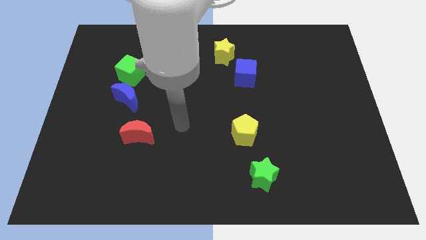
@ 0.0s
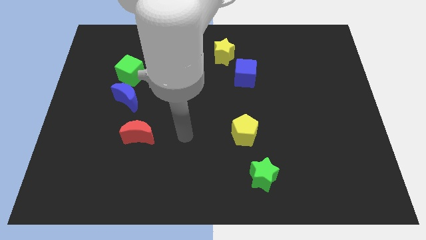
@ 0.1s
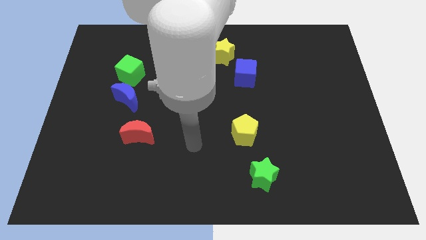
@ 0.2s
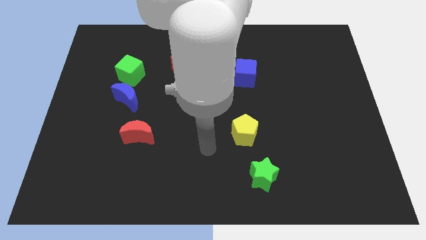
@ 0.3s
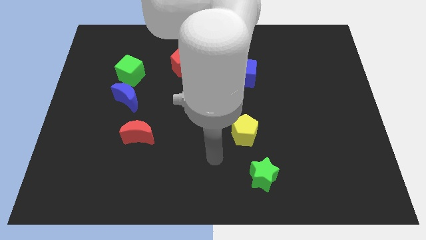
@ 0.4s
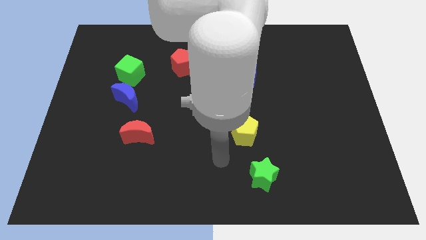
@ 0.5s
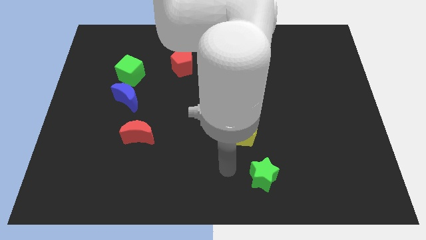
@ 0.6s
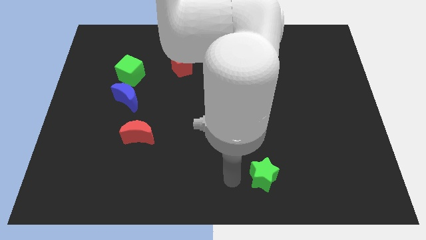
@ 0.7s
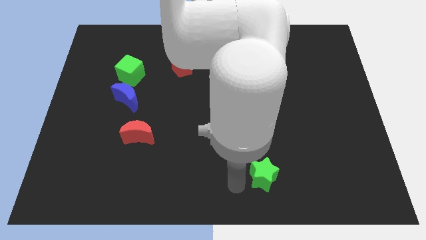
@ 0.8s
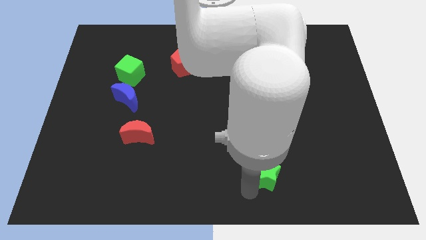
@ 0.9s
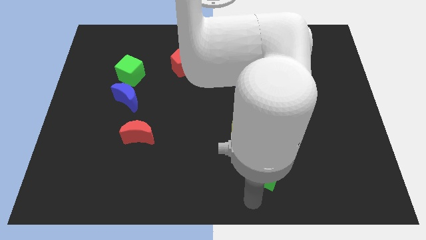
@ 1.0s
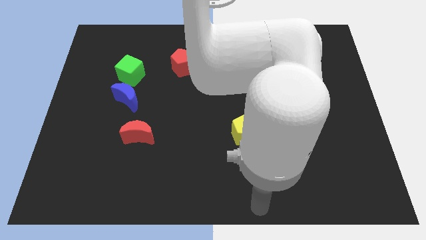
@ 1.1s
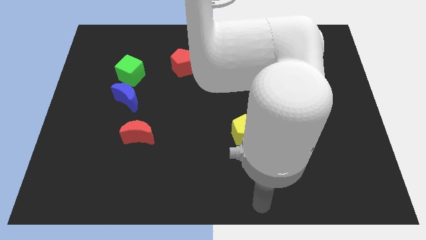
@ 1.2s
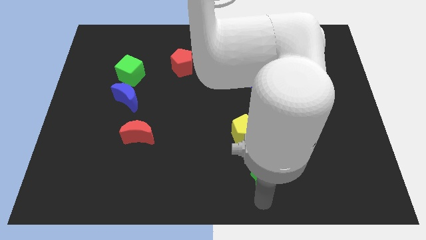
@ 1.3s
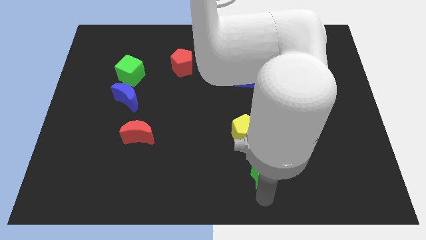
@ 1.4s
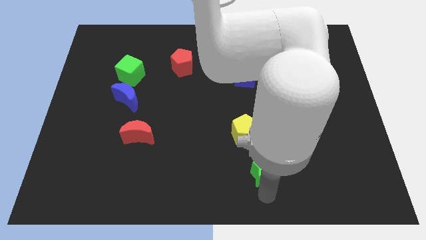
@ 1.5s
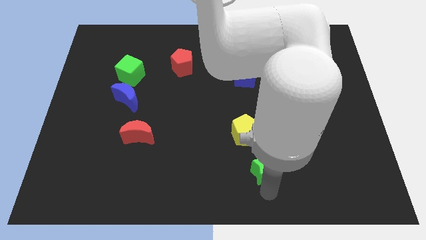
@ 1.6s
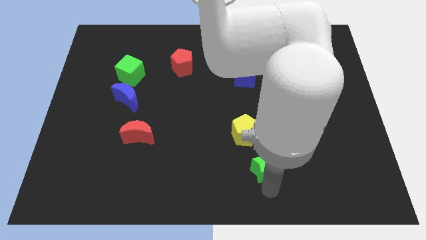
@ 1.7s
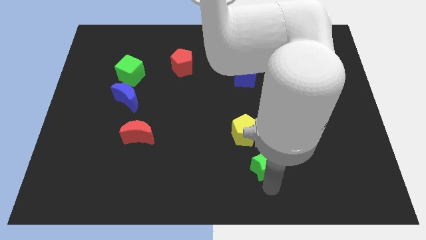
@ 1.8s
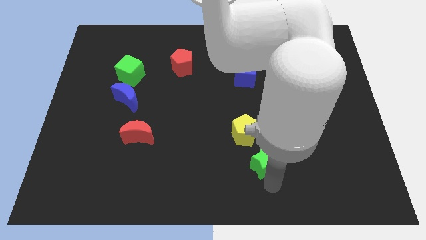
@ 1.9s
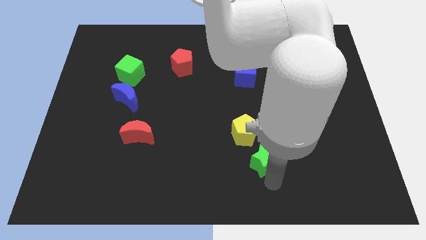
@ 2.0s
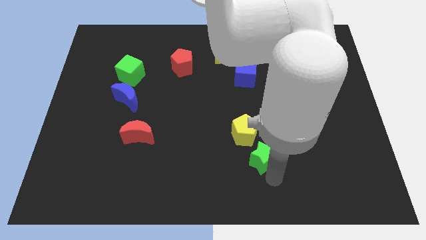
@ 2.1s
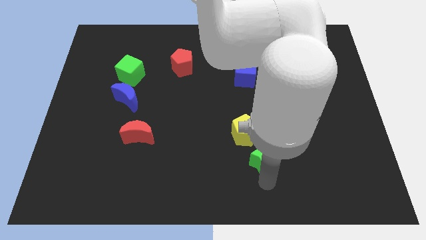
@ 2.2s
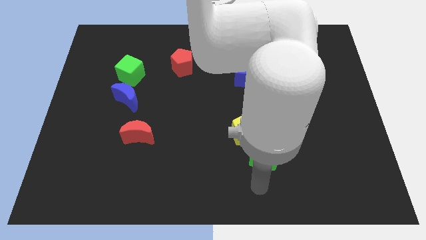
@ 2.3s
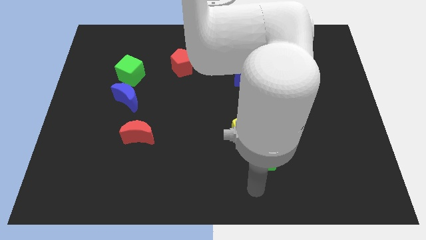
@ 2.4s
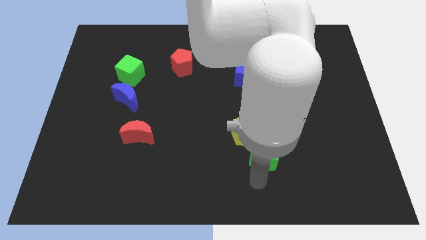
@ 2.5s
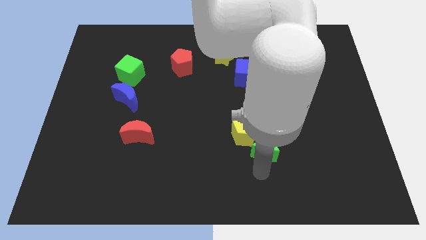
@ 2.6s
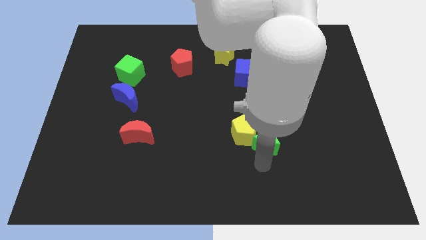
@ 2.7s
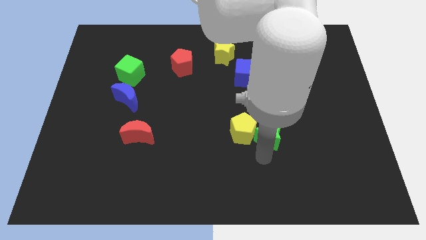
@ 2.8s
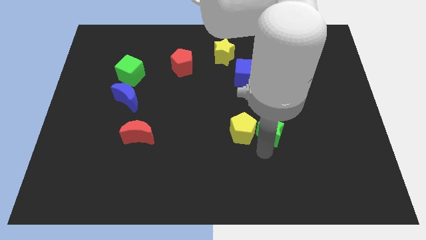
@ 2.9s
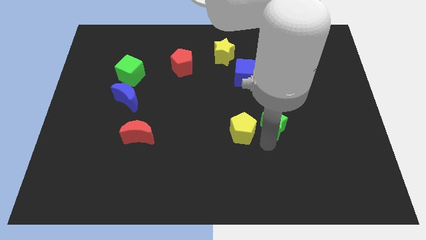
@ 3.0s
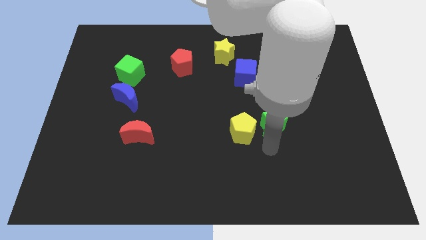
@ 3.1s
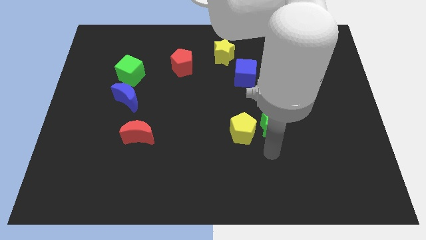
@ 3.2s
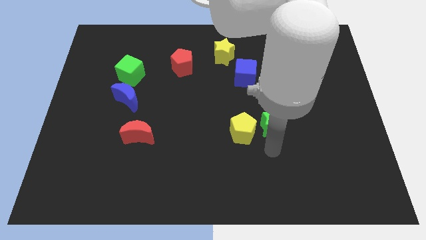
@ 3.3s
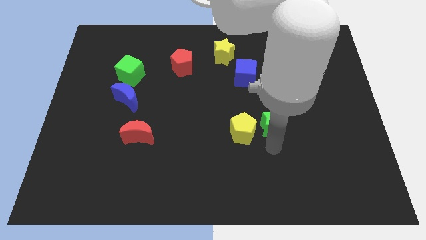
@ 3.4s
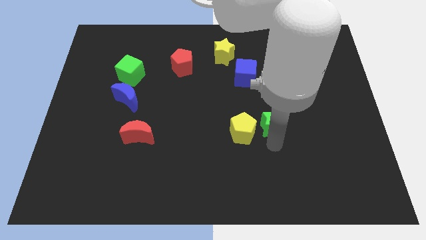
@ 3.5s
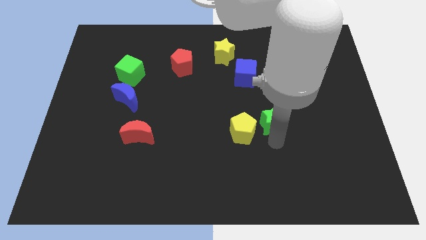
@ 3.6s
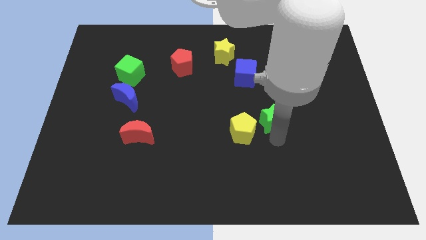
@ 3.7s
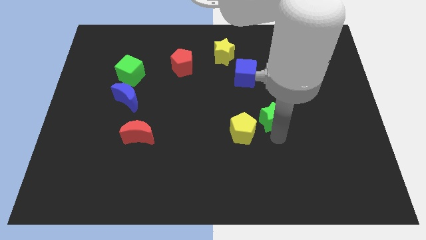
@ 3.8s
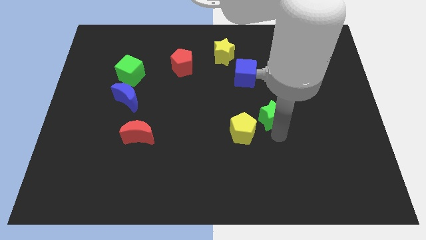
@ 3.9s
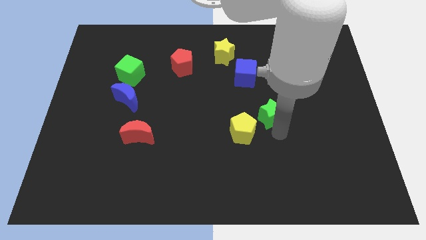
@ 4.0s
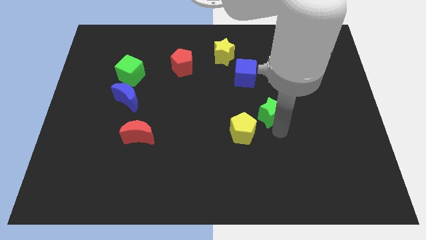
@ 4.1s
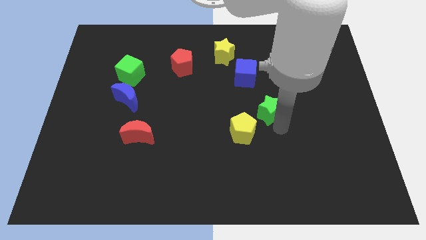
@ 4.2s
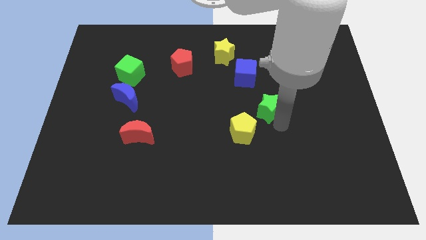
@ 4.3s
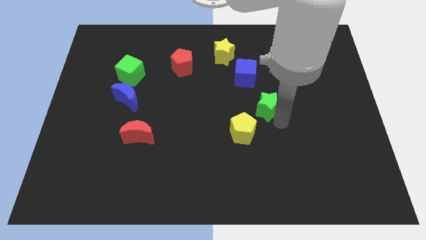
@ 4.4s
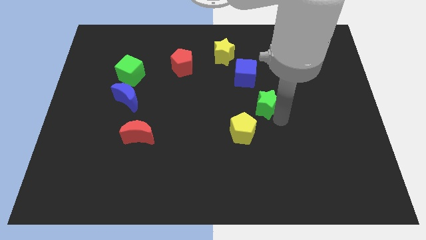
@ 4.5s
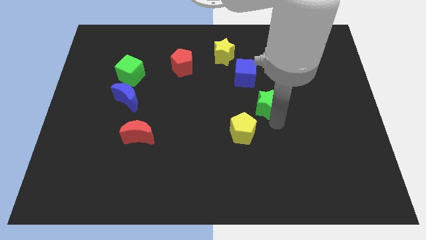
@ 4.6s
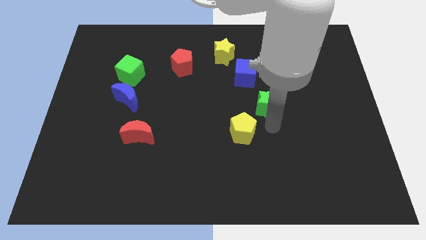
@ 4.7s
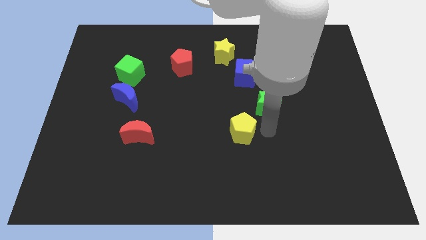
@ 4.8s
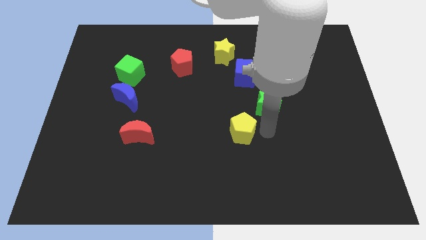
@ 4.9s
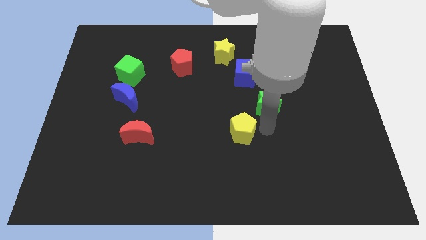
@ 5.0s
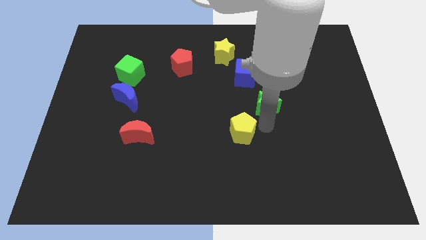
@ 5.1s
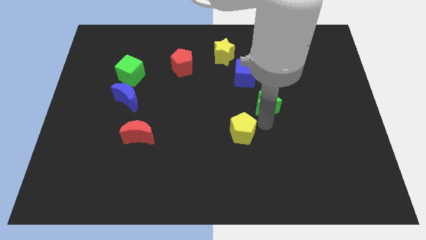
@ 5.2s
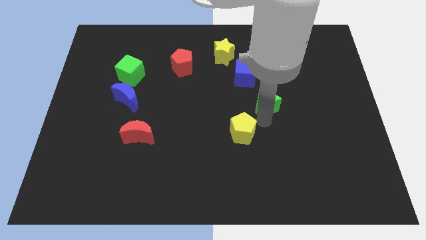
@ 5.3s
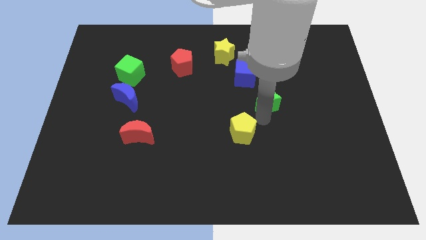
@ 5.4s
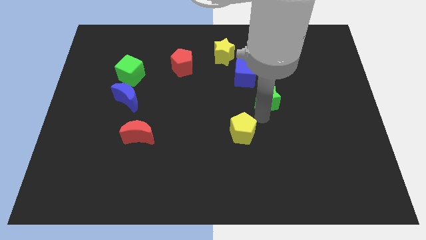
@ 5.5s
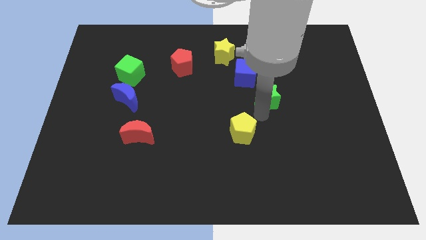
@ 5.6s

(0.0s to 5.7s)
push the green star up

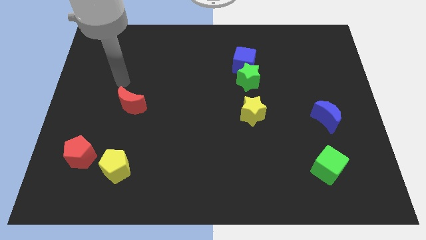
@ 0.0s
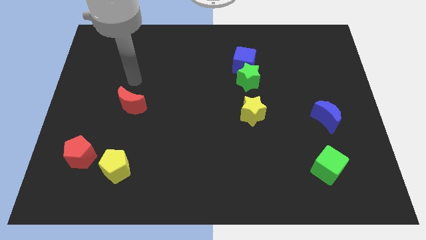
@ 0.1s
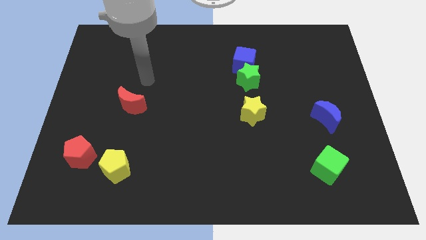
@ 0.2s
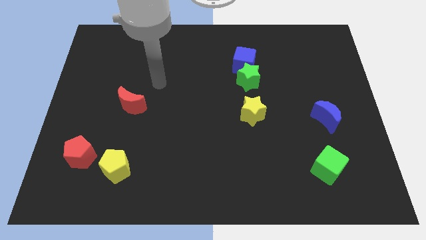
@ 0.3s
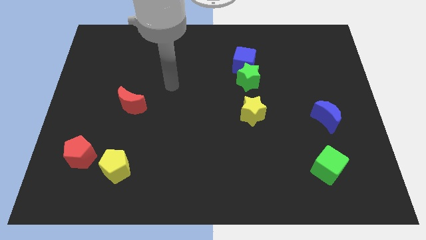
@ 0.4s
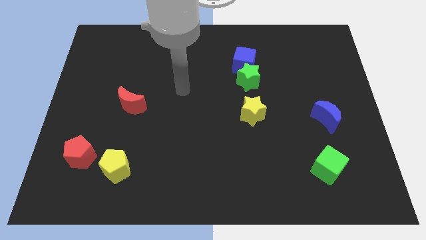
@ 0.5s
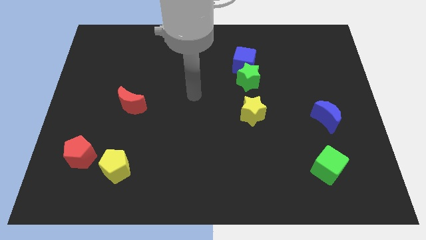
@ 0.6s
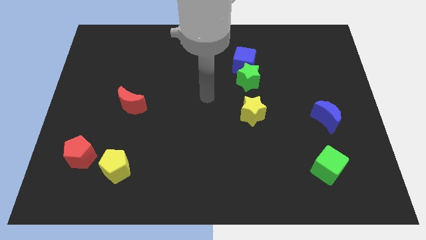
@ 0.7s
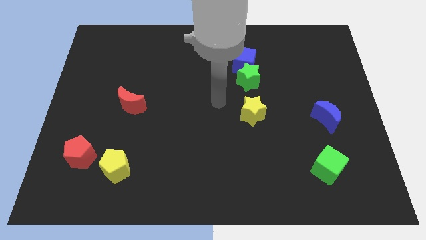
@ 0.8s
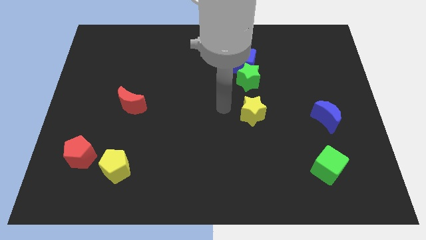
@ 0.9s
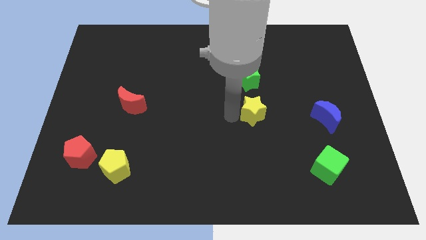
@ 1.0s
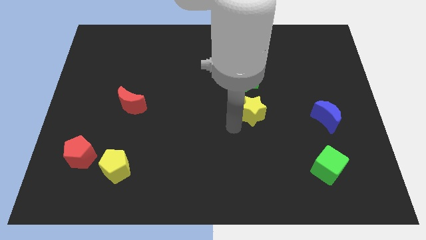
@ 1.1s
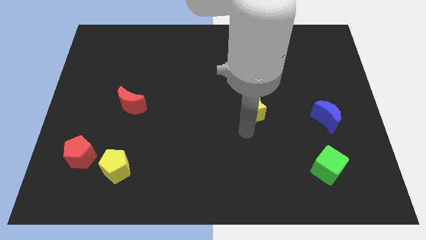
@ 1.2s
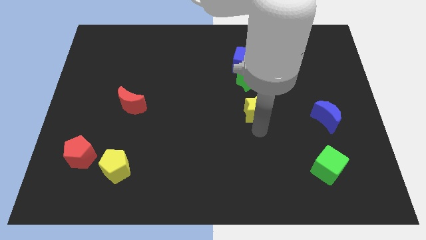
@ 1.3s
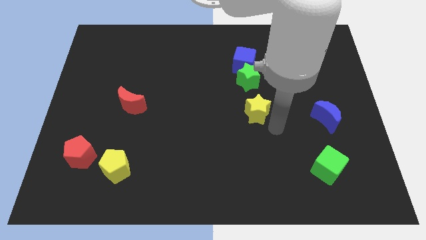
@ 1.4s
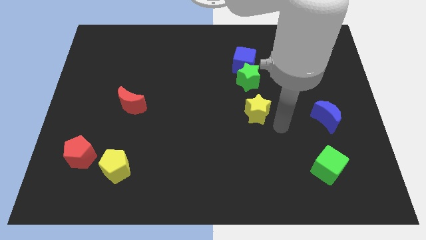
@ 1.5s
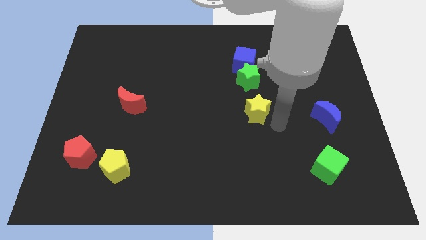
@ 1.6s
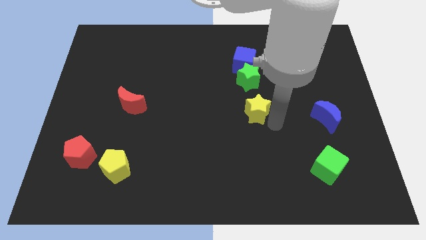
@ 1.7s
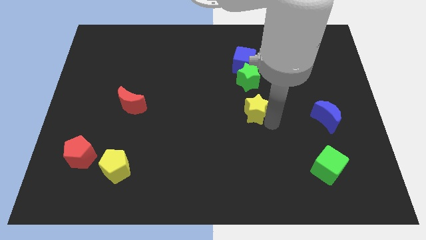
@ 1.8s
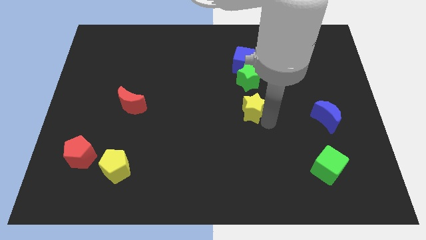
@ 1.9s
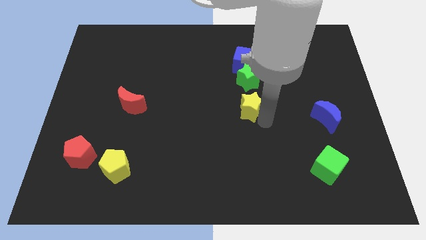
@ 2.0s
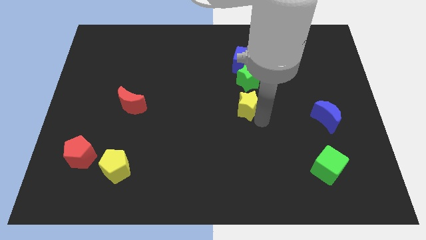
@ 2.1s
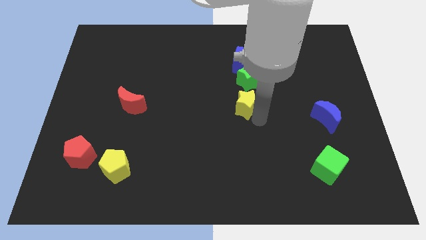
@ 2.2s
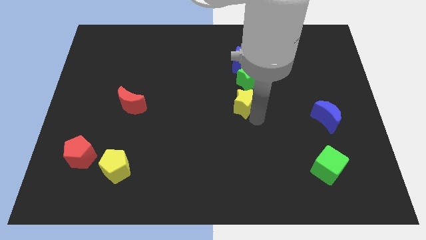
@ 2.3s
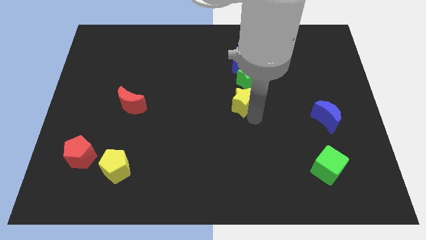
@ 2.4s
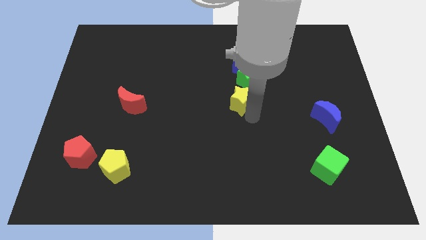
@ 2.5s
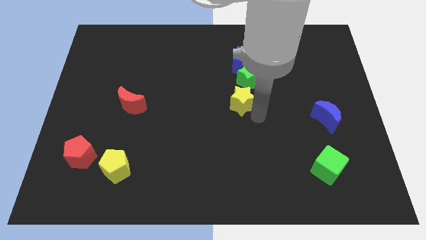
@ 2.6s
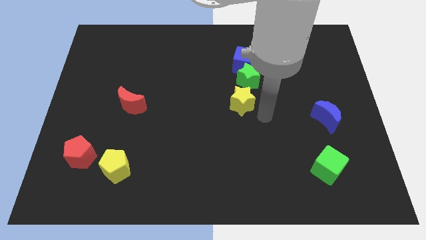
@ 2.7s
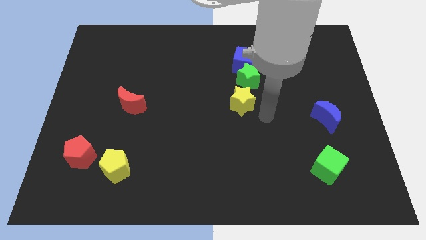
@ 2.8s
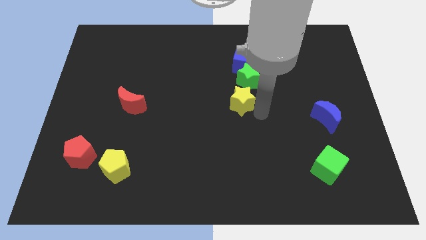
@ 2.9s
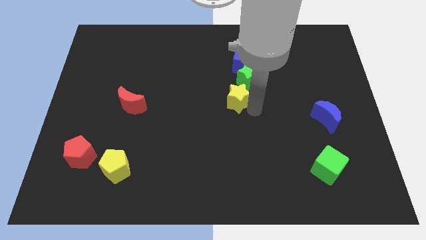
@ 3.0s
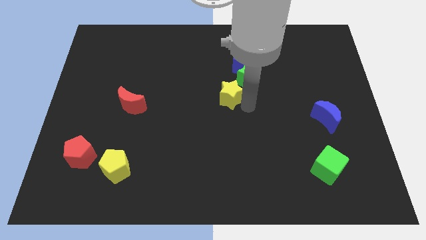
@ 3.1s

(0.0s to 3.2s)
slide the yellow star upwards and left diagonally somewhat
